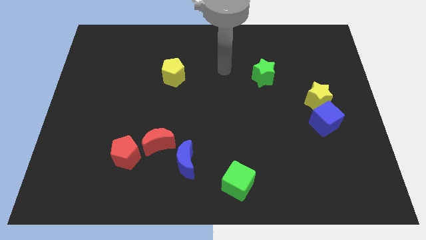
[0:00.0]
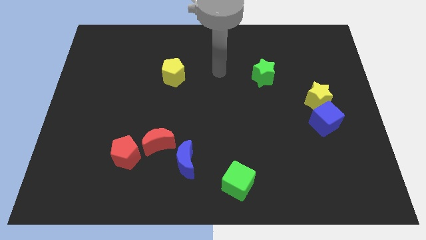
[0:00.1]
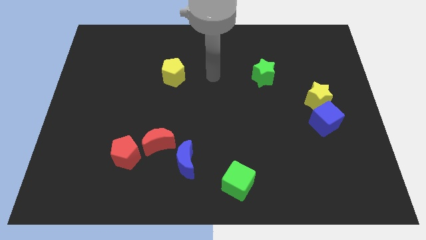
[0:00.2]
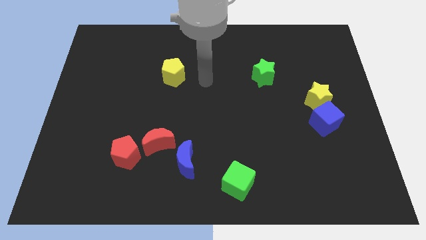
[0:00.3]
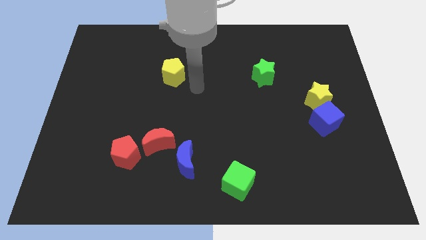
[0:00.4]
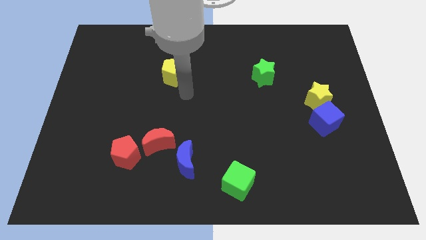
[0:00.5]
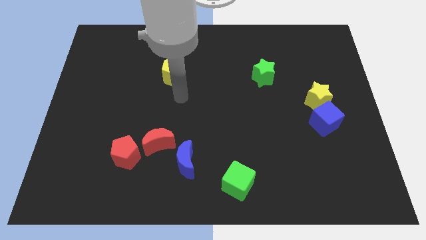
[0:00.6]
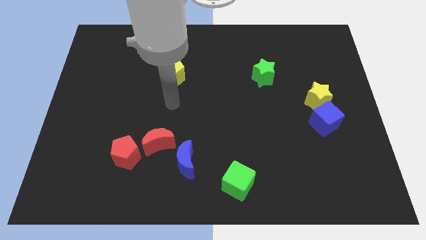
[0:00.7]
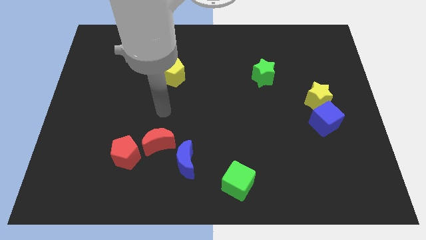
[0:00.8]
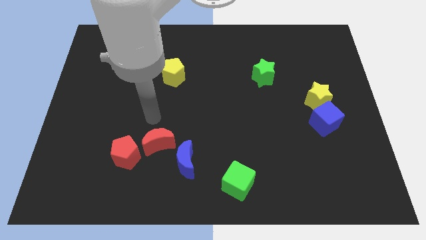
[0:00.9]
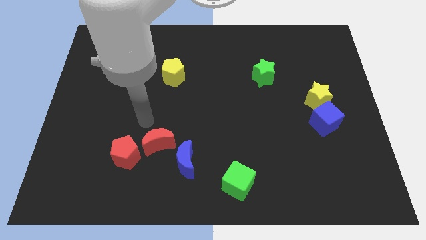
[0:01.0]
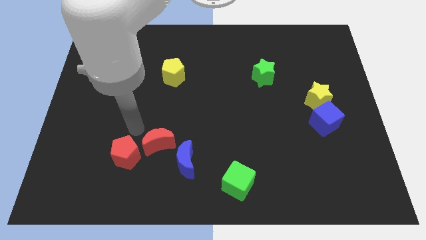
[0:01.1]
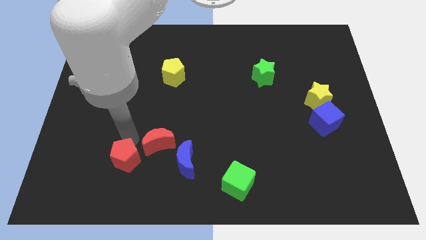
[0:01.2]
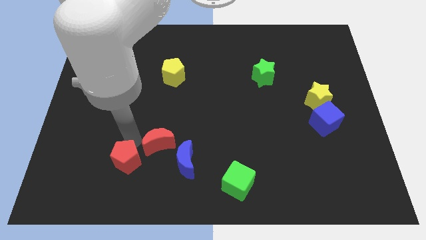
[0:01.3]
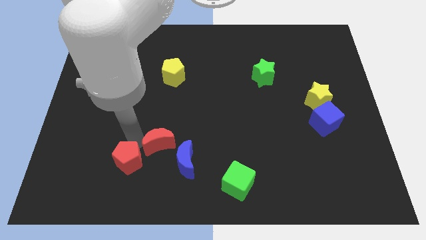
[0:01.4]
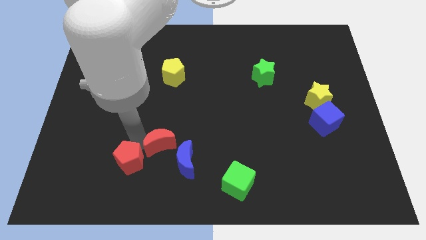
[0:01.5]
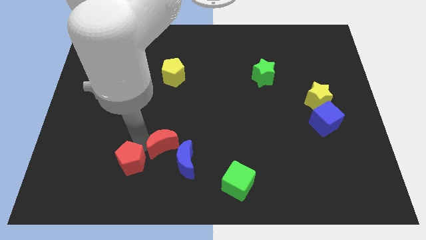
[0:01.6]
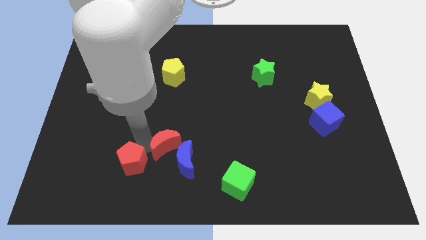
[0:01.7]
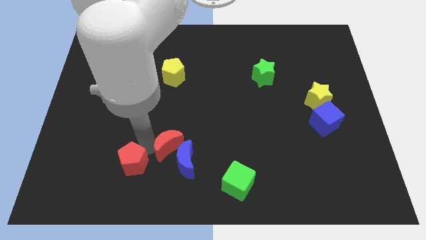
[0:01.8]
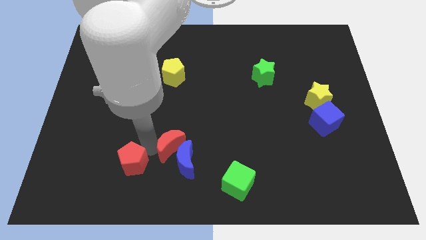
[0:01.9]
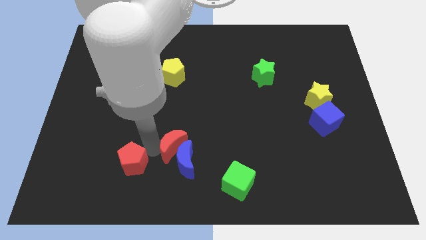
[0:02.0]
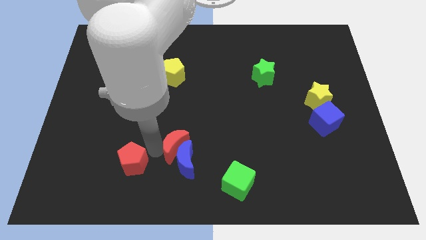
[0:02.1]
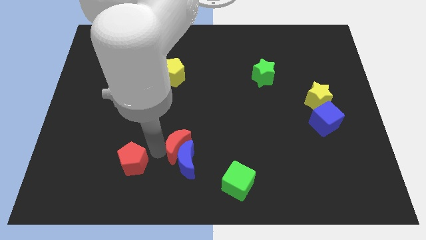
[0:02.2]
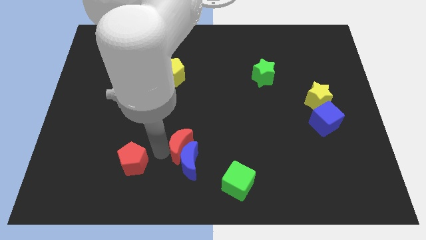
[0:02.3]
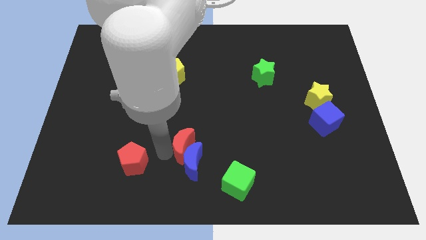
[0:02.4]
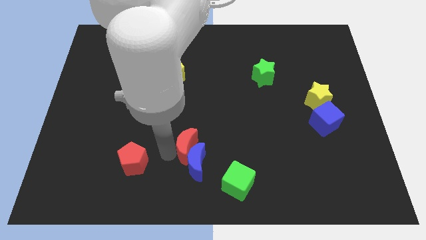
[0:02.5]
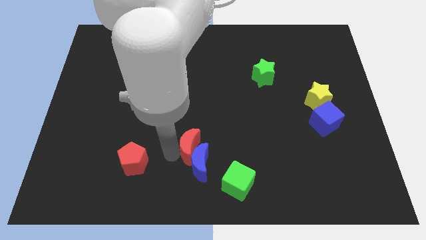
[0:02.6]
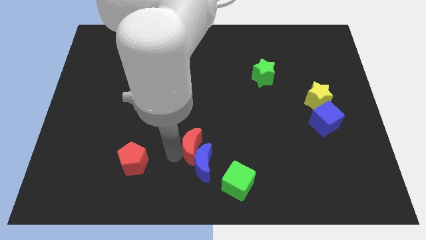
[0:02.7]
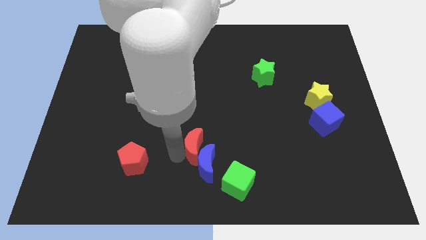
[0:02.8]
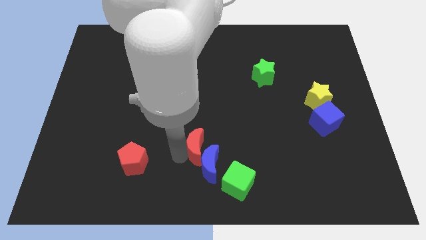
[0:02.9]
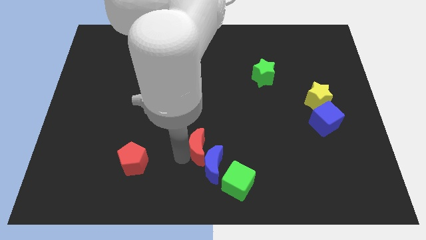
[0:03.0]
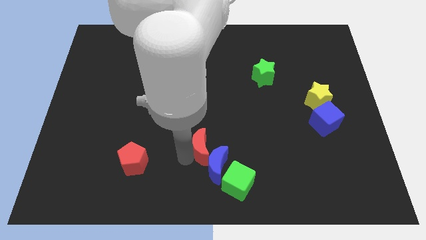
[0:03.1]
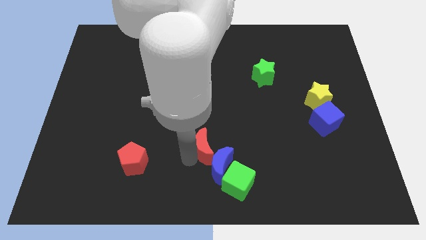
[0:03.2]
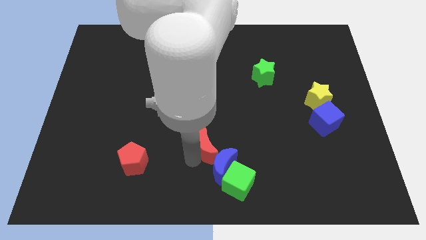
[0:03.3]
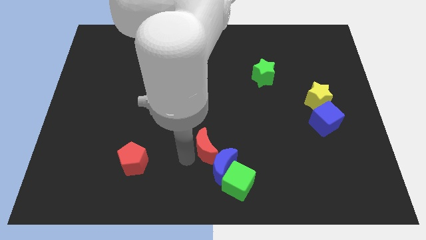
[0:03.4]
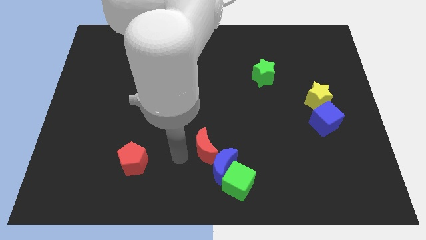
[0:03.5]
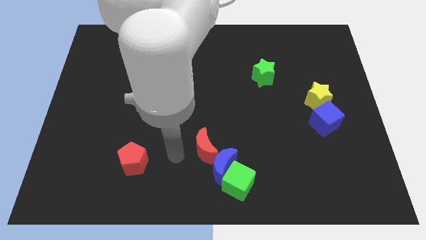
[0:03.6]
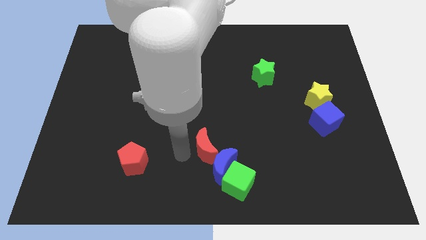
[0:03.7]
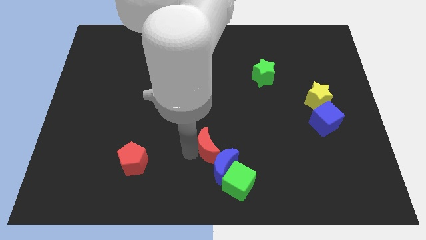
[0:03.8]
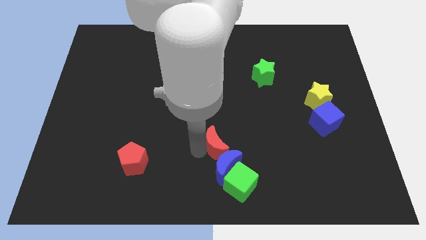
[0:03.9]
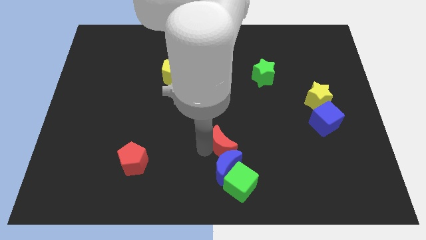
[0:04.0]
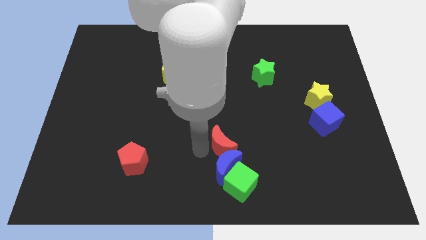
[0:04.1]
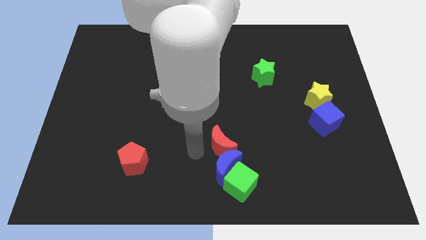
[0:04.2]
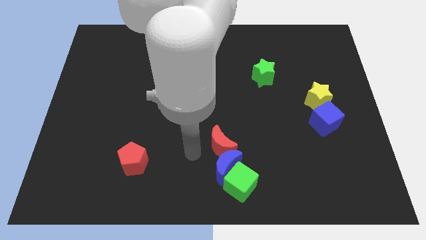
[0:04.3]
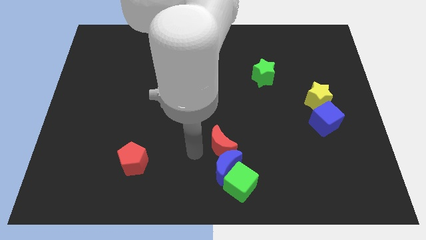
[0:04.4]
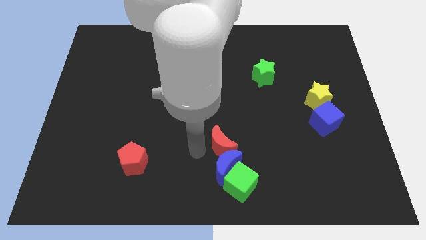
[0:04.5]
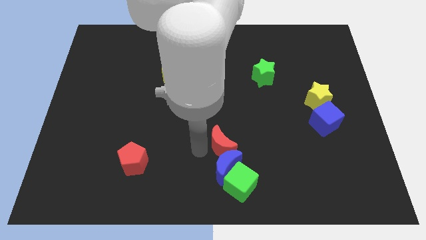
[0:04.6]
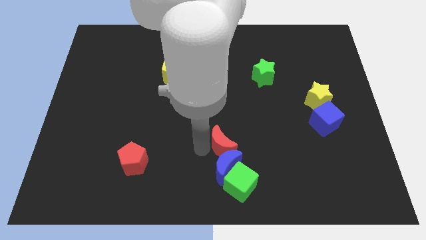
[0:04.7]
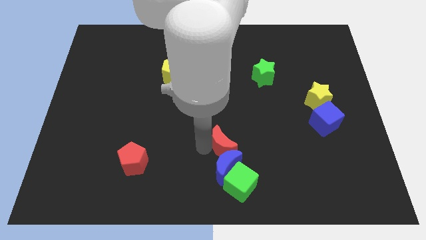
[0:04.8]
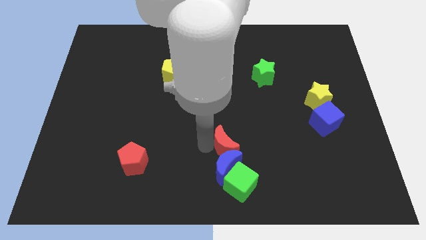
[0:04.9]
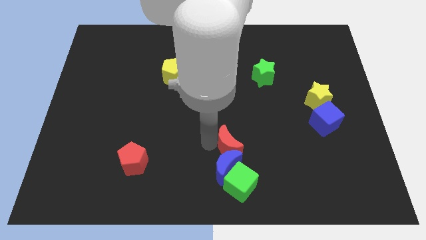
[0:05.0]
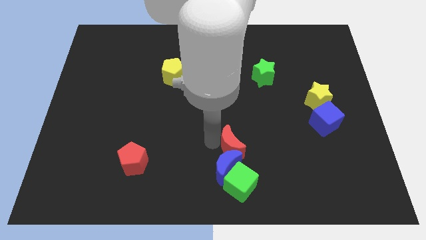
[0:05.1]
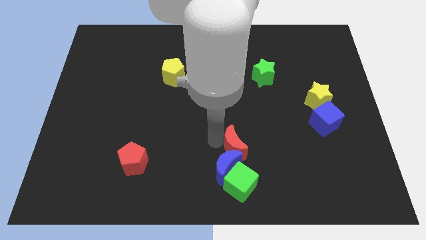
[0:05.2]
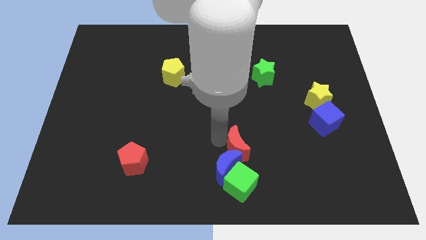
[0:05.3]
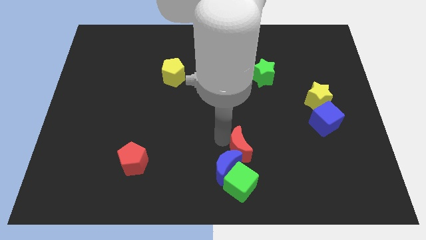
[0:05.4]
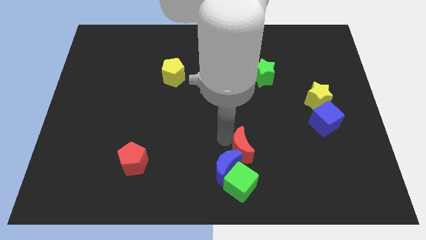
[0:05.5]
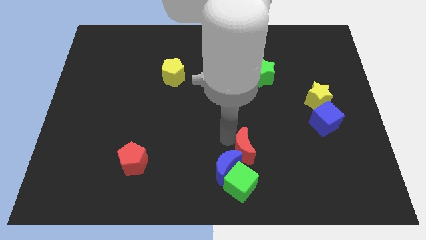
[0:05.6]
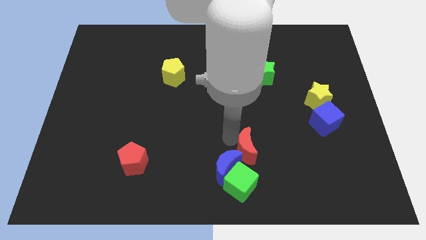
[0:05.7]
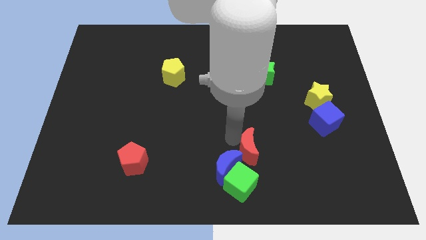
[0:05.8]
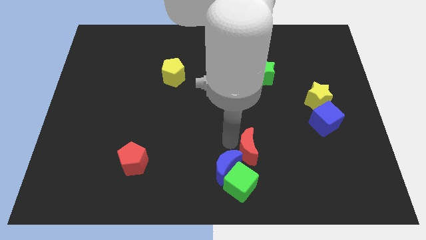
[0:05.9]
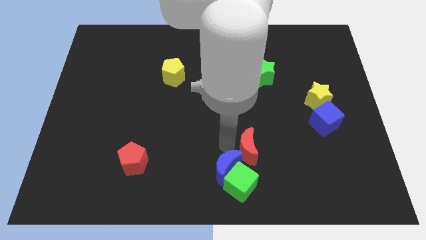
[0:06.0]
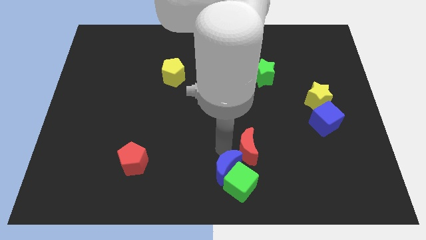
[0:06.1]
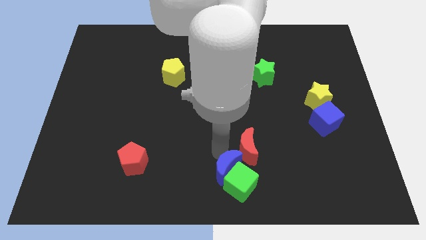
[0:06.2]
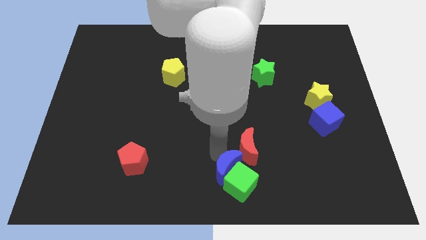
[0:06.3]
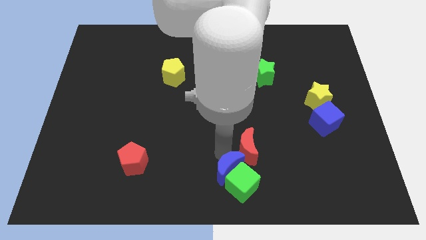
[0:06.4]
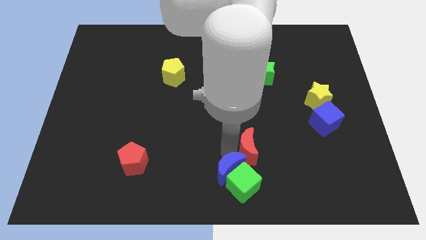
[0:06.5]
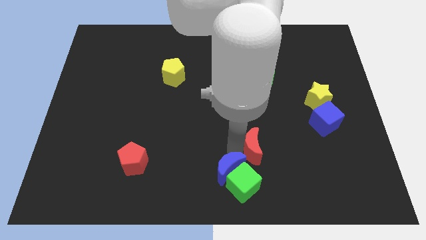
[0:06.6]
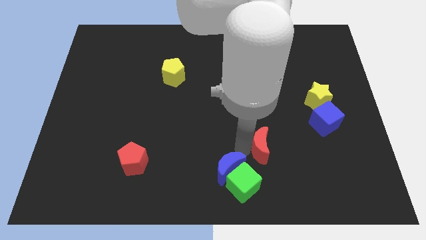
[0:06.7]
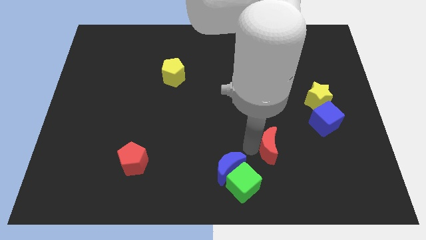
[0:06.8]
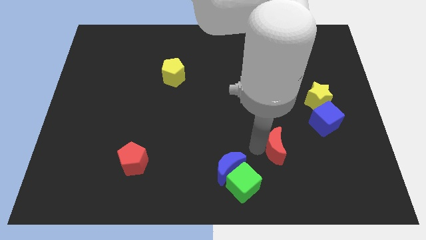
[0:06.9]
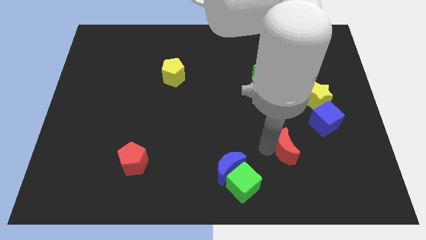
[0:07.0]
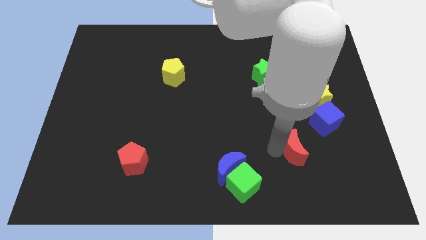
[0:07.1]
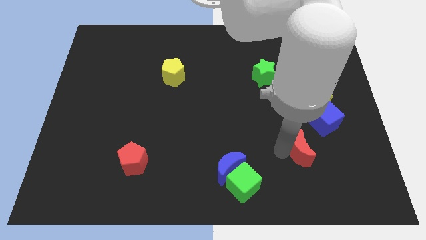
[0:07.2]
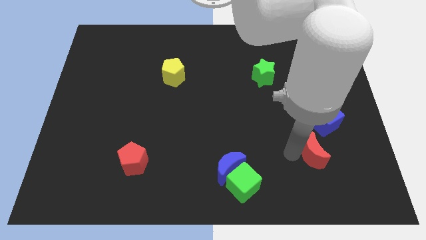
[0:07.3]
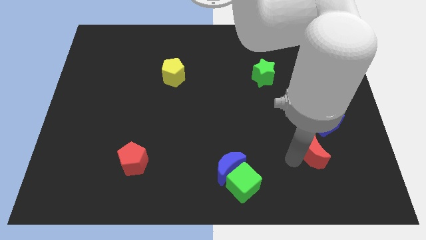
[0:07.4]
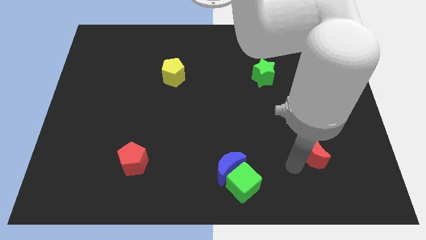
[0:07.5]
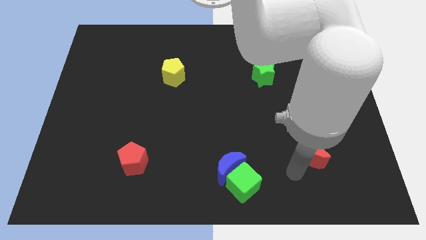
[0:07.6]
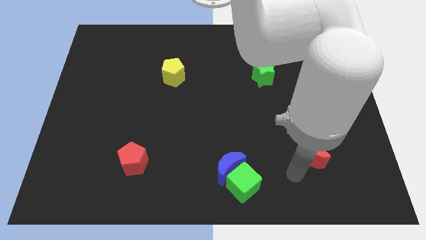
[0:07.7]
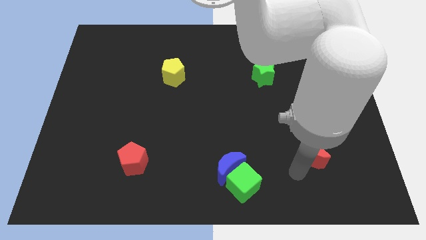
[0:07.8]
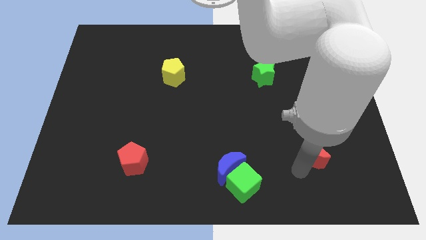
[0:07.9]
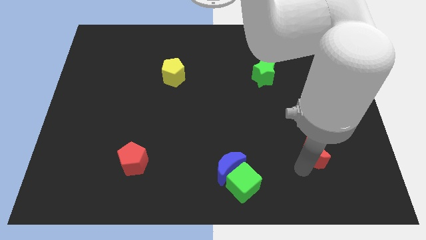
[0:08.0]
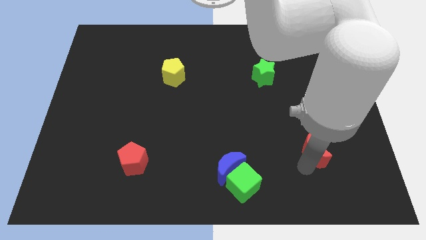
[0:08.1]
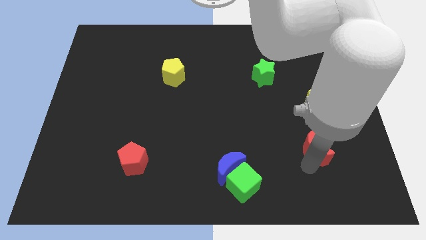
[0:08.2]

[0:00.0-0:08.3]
move the red moon to the bottom of the yellow star
